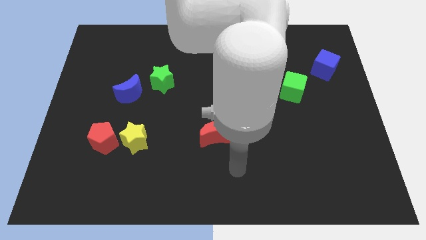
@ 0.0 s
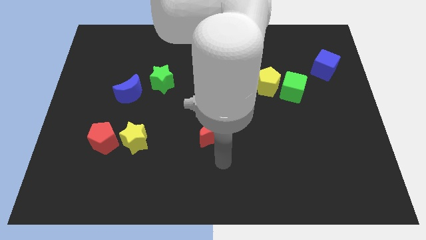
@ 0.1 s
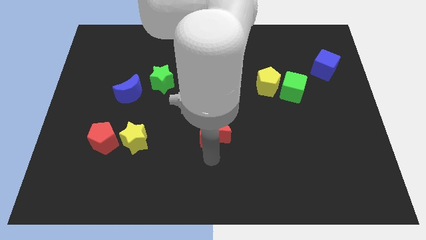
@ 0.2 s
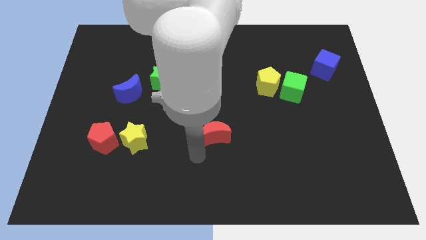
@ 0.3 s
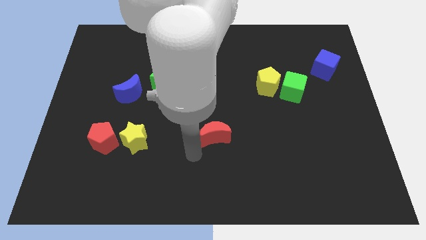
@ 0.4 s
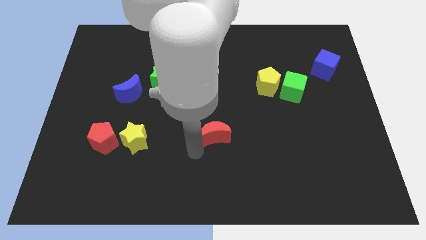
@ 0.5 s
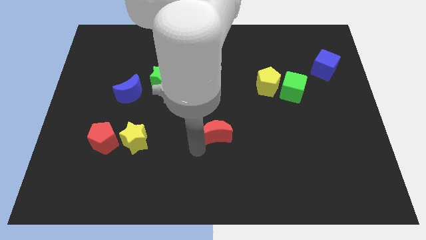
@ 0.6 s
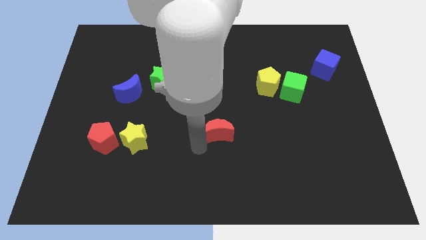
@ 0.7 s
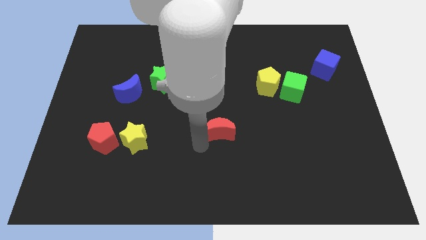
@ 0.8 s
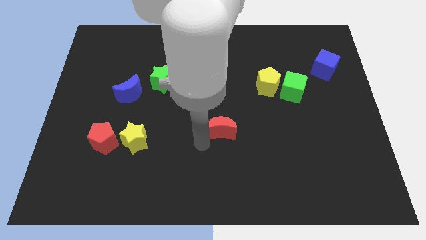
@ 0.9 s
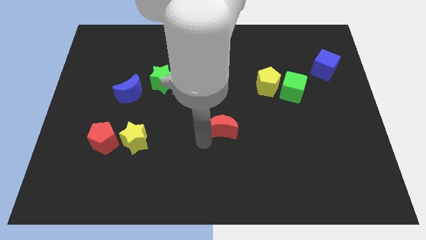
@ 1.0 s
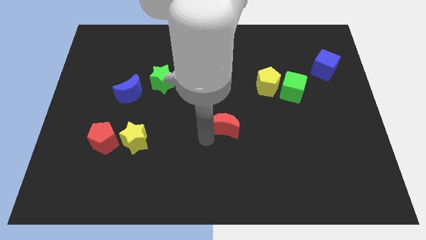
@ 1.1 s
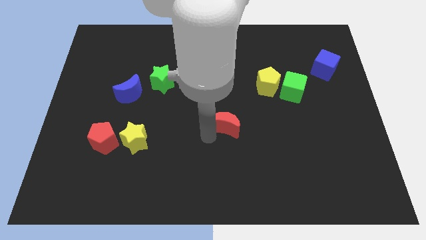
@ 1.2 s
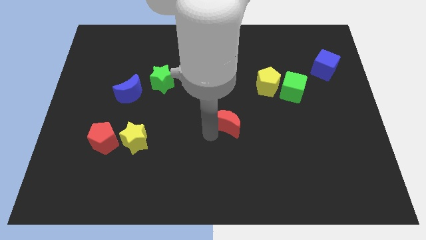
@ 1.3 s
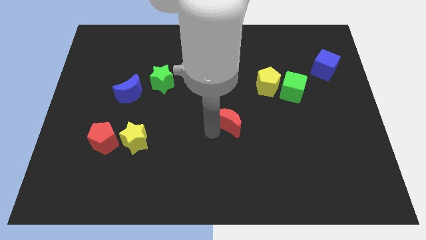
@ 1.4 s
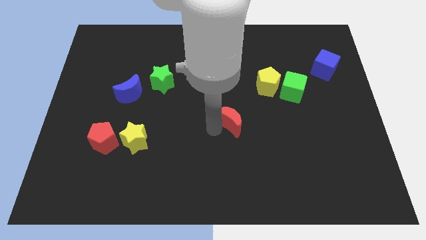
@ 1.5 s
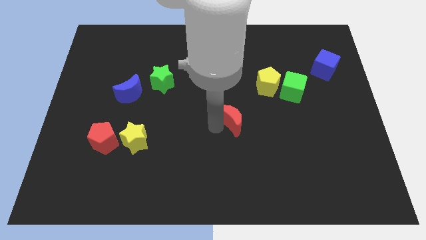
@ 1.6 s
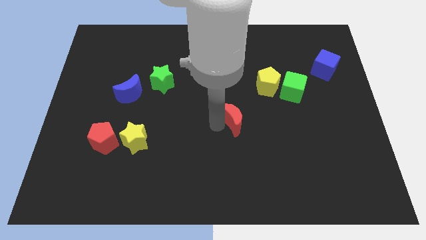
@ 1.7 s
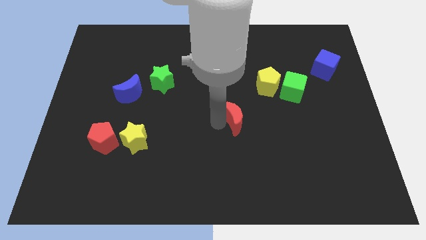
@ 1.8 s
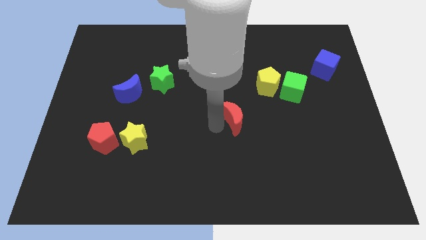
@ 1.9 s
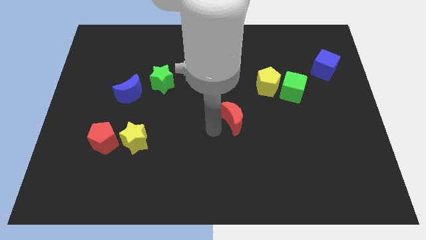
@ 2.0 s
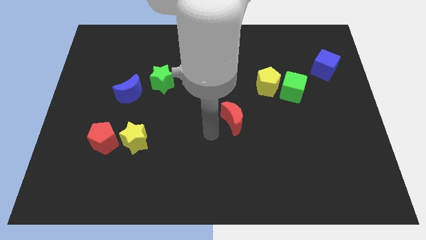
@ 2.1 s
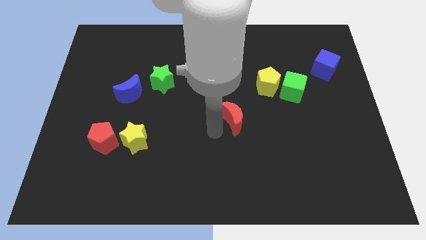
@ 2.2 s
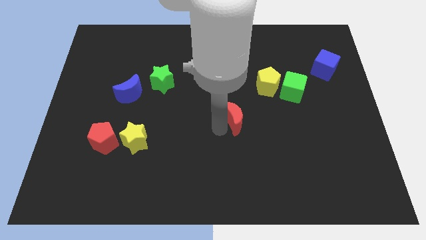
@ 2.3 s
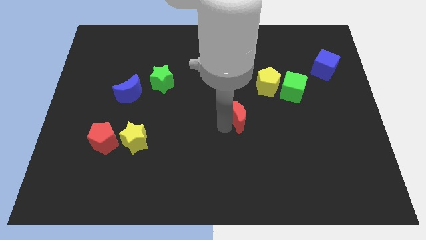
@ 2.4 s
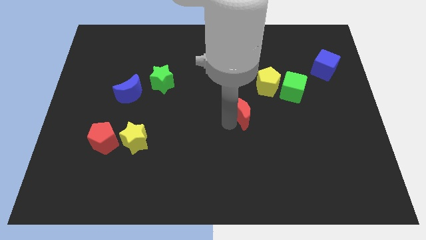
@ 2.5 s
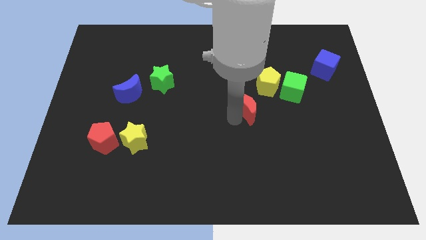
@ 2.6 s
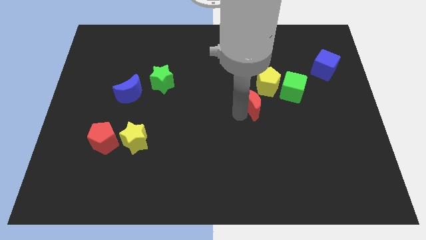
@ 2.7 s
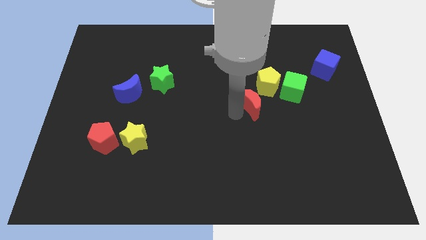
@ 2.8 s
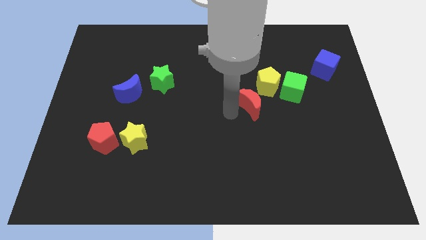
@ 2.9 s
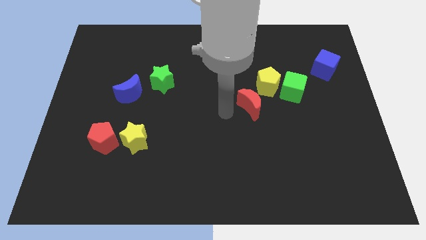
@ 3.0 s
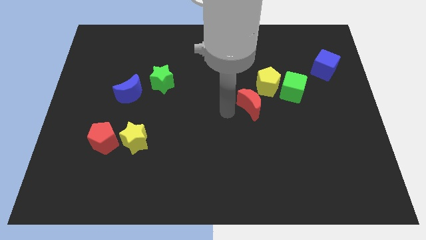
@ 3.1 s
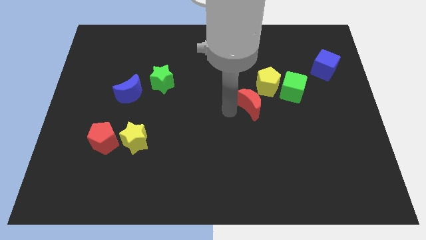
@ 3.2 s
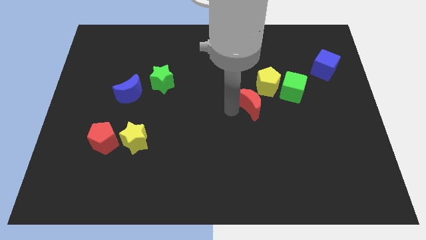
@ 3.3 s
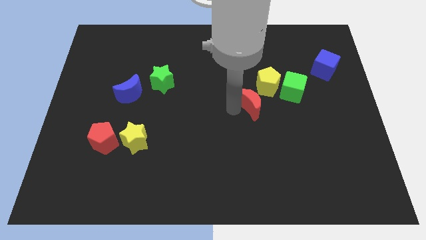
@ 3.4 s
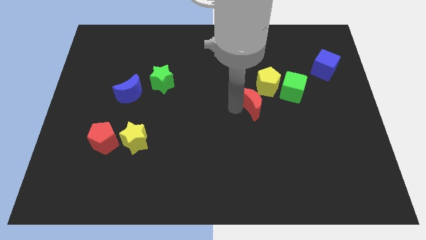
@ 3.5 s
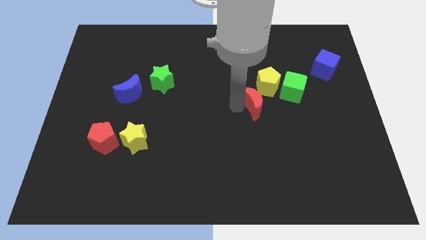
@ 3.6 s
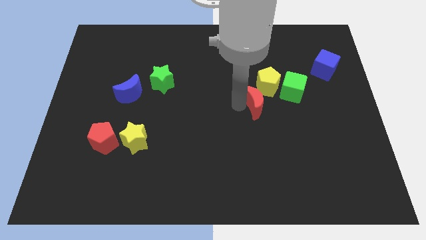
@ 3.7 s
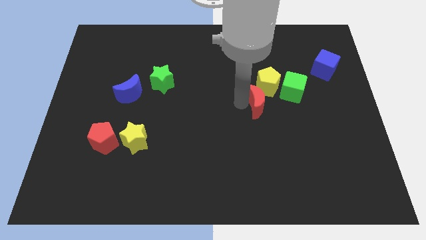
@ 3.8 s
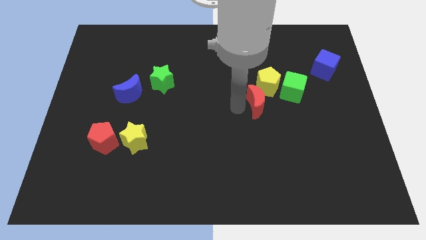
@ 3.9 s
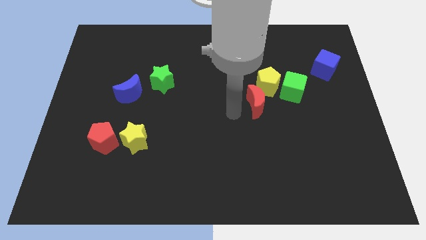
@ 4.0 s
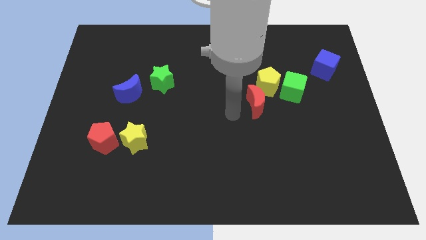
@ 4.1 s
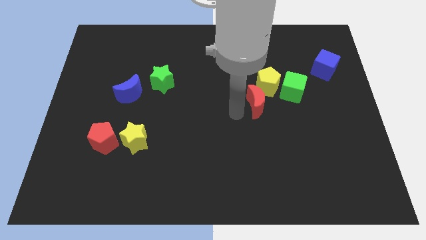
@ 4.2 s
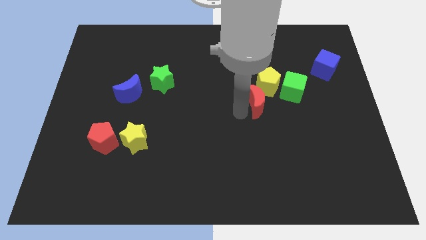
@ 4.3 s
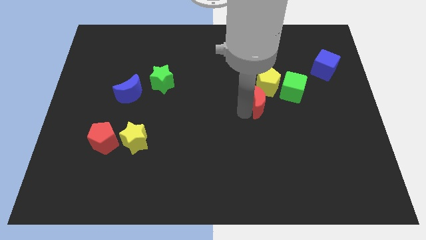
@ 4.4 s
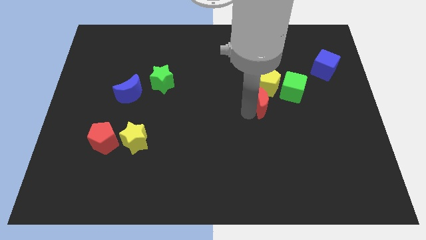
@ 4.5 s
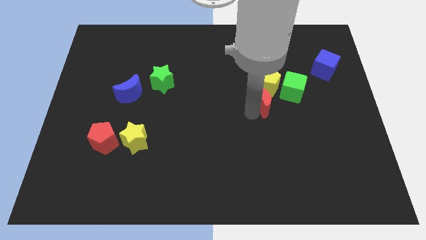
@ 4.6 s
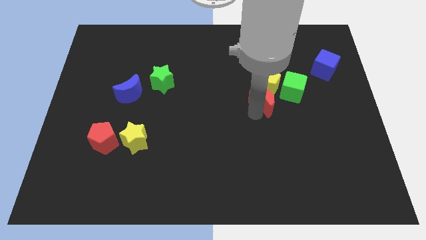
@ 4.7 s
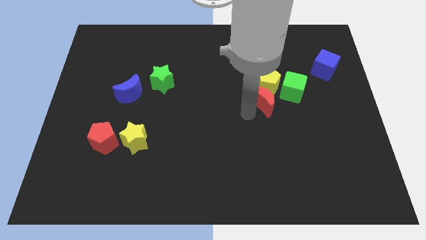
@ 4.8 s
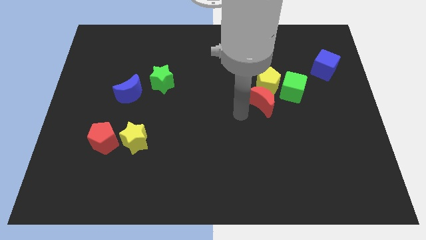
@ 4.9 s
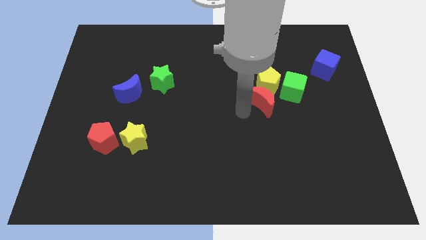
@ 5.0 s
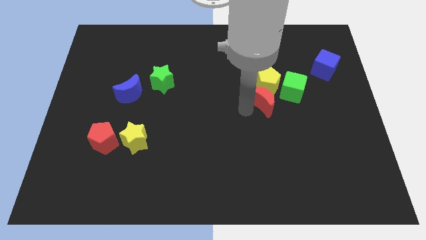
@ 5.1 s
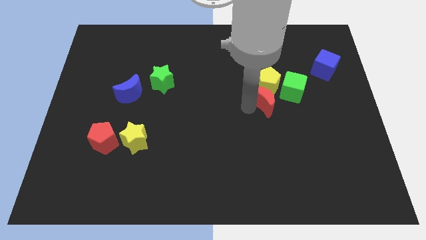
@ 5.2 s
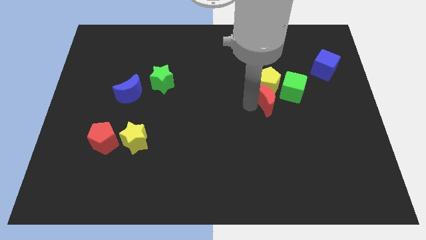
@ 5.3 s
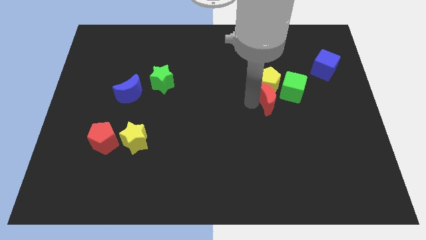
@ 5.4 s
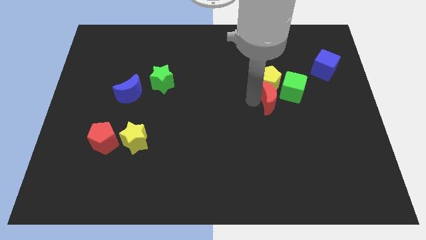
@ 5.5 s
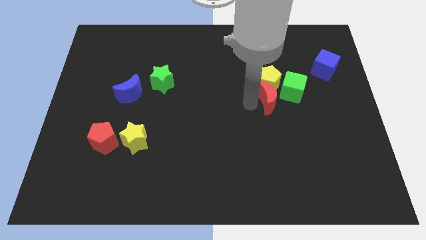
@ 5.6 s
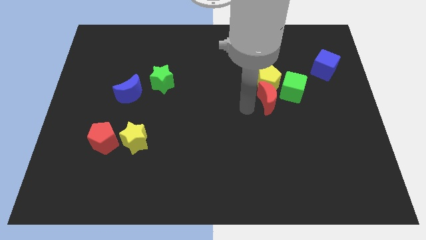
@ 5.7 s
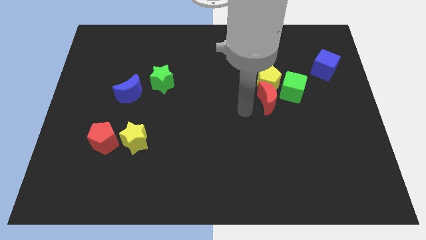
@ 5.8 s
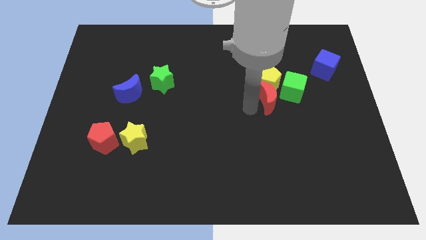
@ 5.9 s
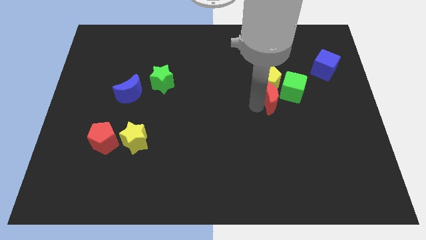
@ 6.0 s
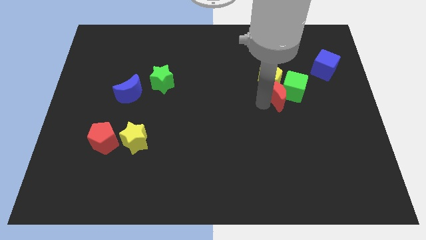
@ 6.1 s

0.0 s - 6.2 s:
slide the red moon next to the green cube
